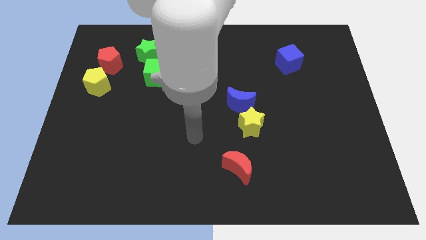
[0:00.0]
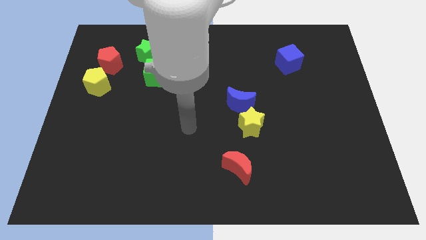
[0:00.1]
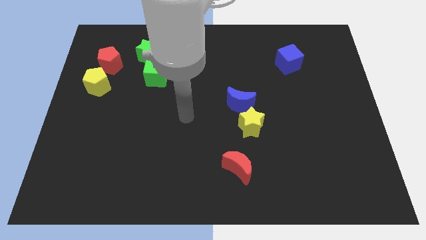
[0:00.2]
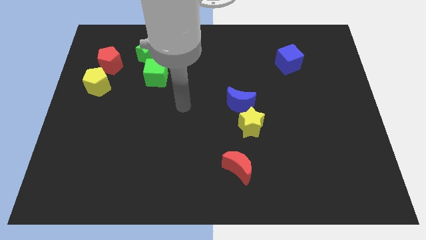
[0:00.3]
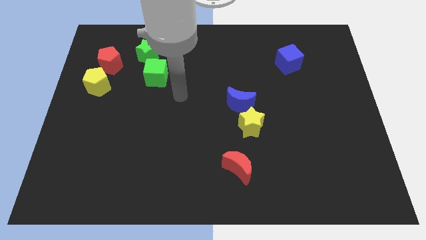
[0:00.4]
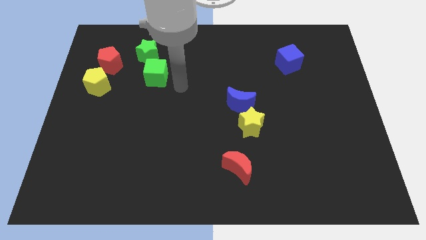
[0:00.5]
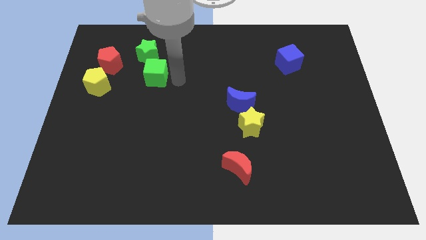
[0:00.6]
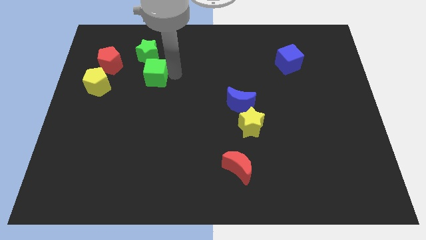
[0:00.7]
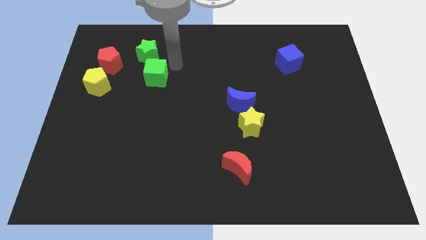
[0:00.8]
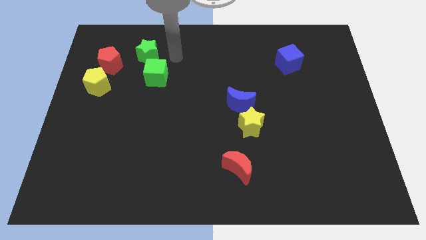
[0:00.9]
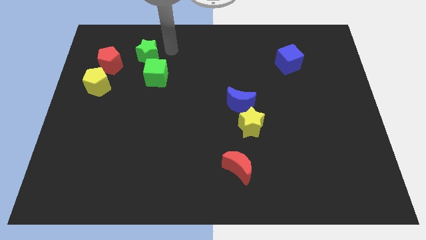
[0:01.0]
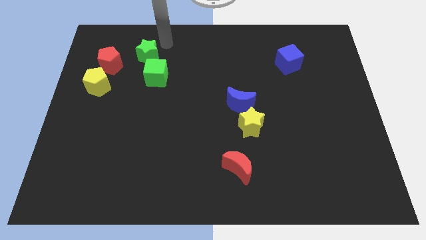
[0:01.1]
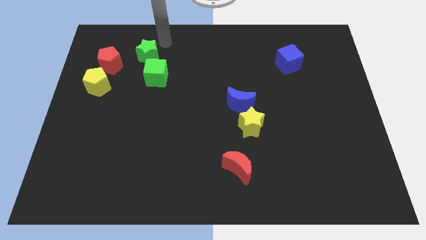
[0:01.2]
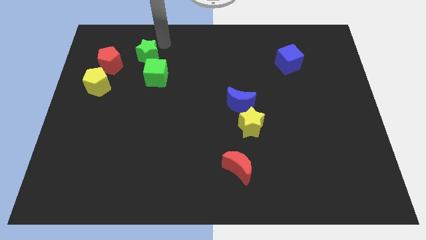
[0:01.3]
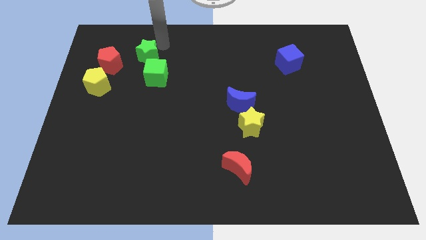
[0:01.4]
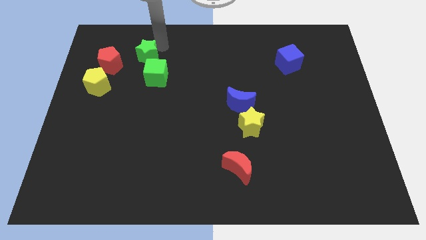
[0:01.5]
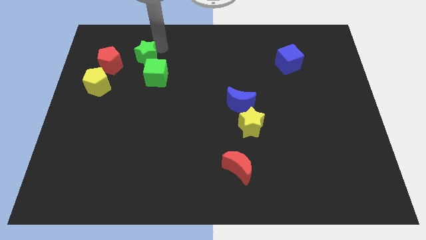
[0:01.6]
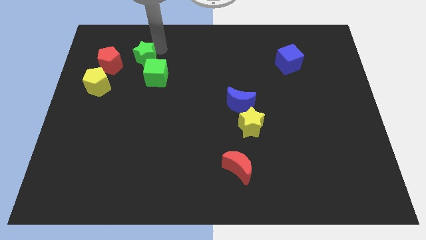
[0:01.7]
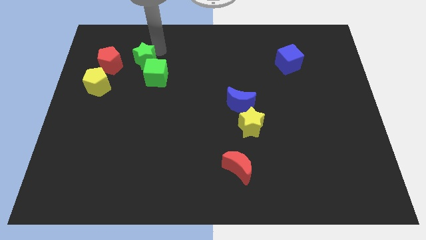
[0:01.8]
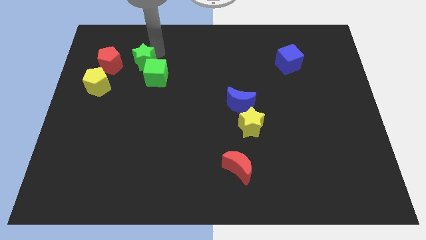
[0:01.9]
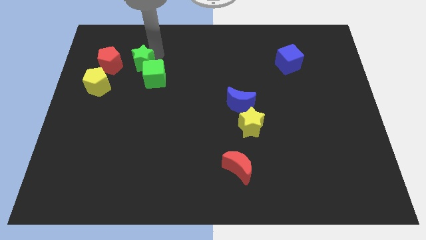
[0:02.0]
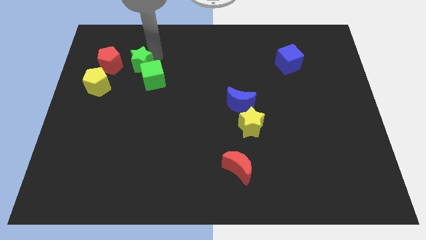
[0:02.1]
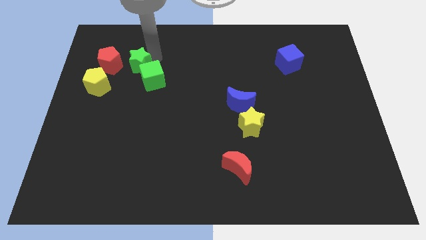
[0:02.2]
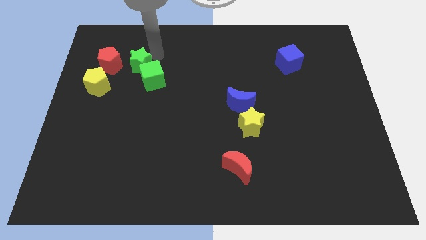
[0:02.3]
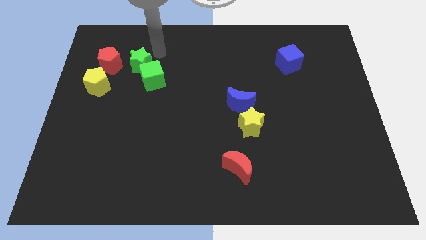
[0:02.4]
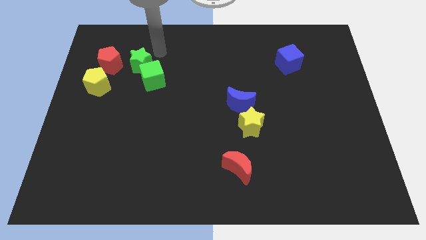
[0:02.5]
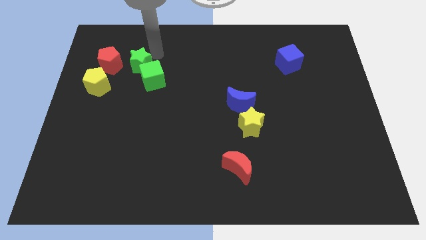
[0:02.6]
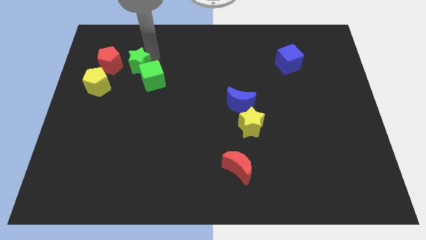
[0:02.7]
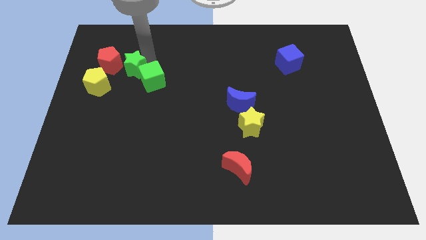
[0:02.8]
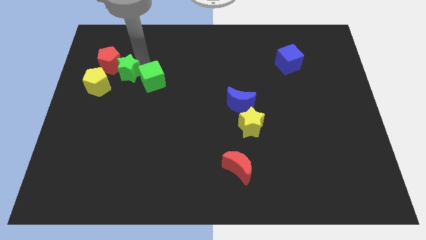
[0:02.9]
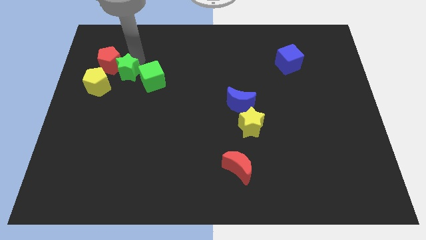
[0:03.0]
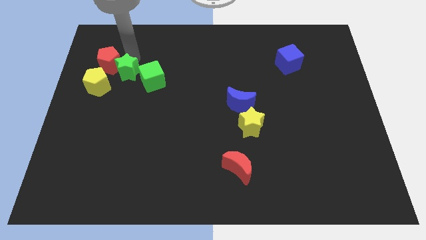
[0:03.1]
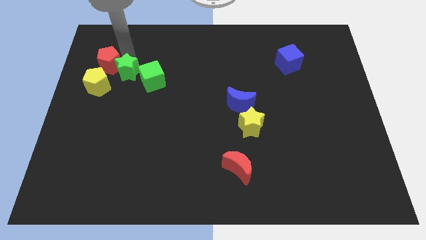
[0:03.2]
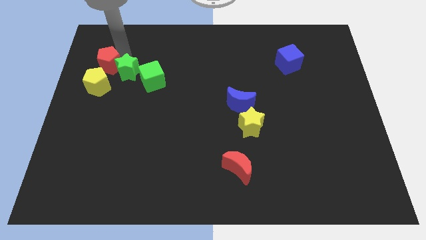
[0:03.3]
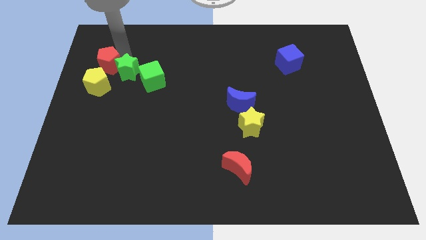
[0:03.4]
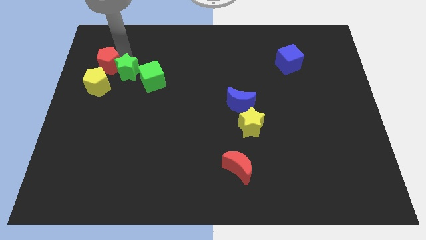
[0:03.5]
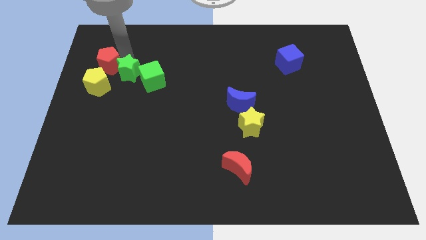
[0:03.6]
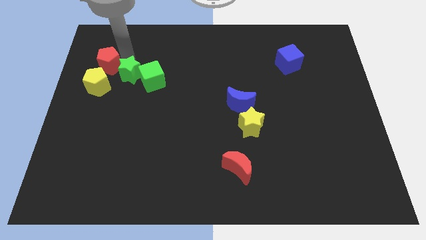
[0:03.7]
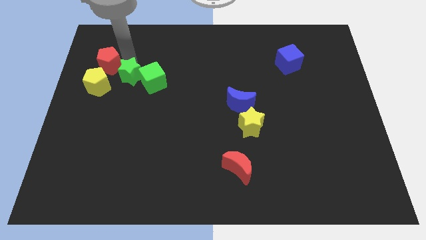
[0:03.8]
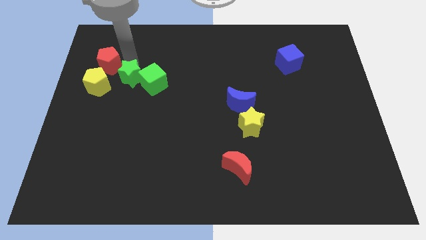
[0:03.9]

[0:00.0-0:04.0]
move the green star down a little

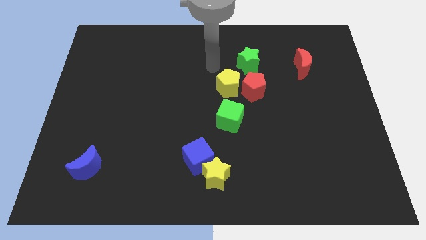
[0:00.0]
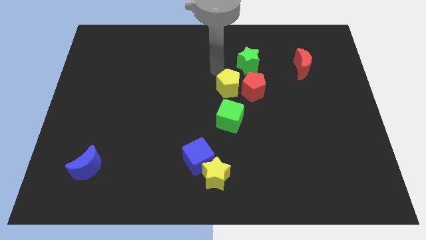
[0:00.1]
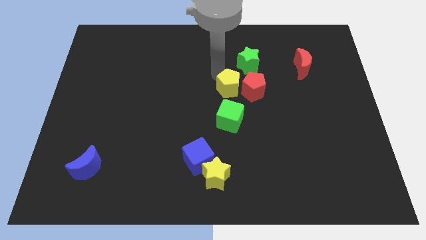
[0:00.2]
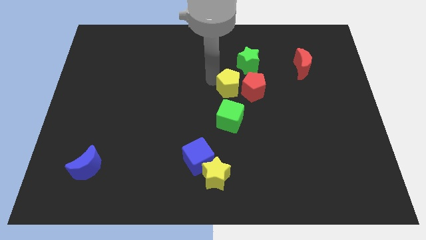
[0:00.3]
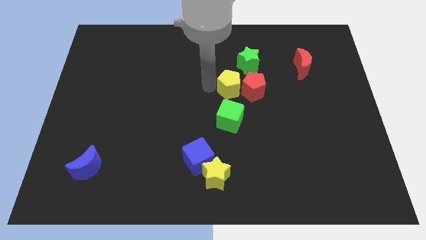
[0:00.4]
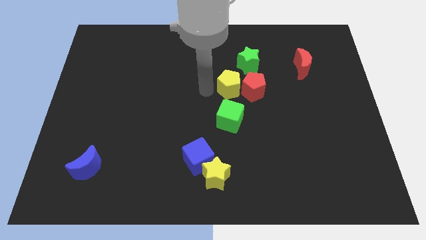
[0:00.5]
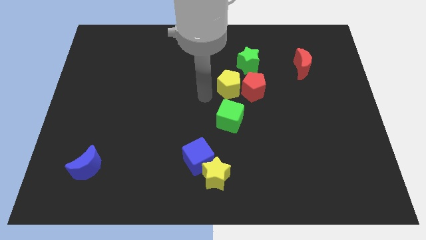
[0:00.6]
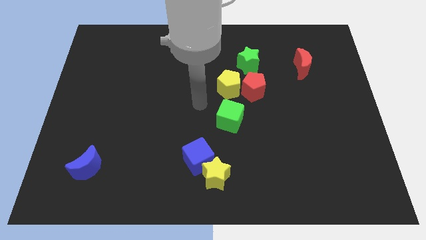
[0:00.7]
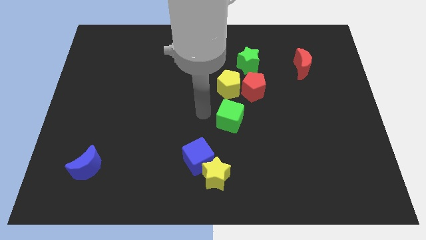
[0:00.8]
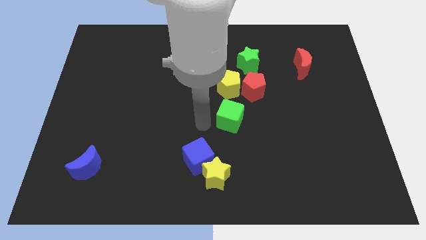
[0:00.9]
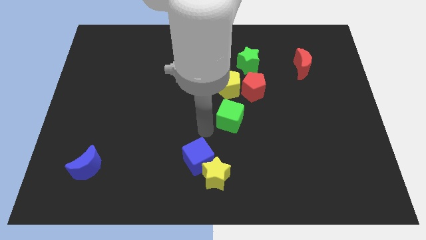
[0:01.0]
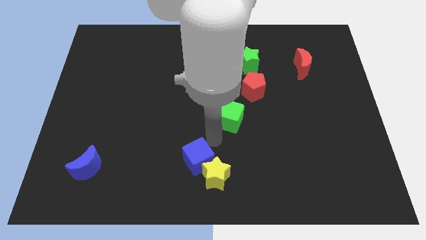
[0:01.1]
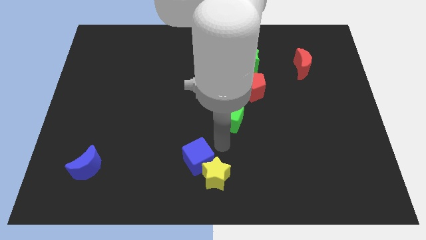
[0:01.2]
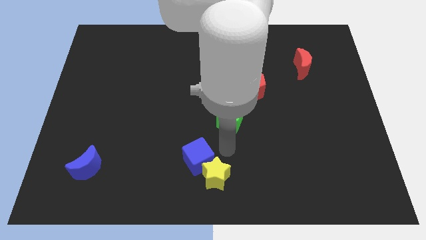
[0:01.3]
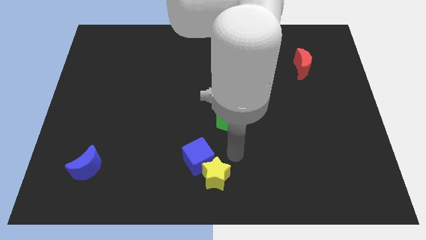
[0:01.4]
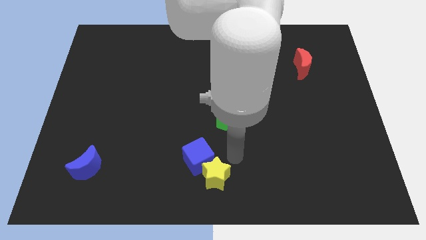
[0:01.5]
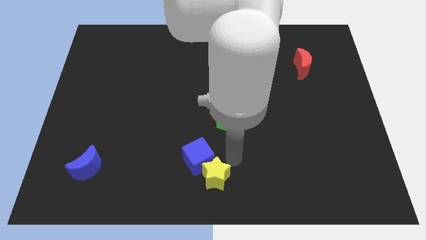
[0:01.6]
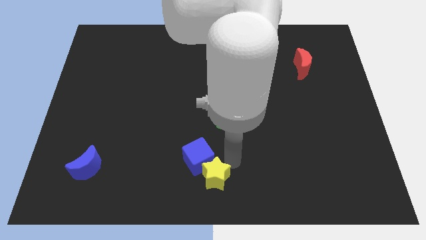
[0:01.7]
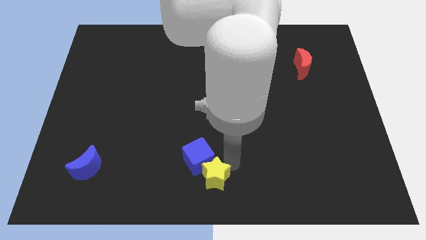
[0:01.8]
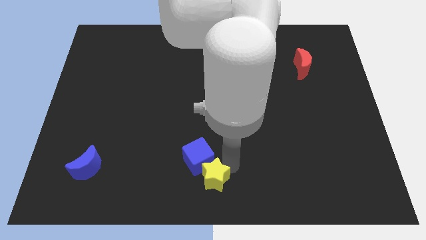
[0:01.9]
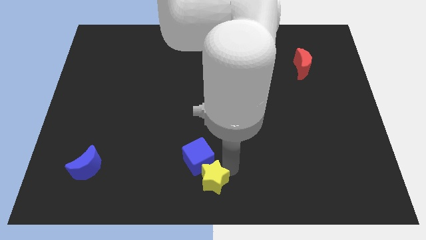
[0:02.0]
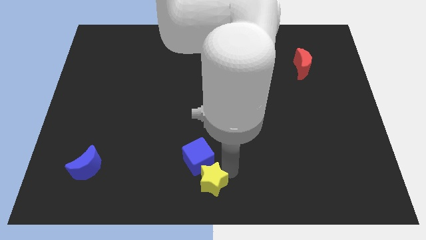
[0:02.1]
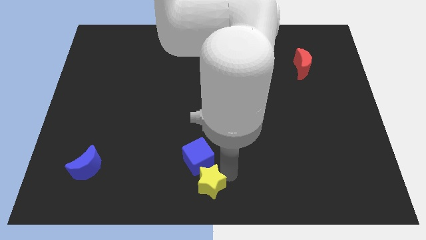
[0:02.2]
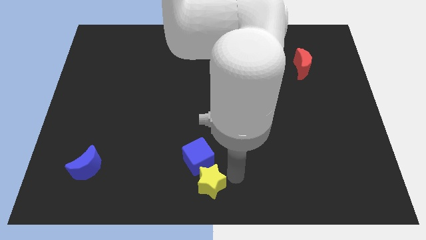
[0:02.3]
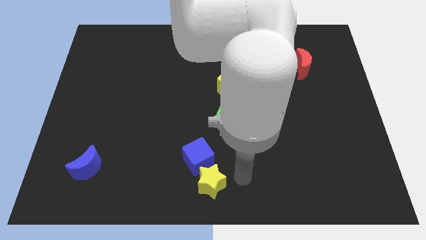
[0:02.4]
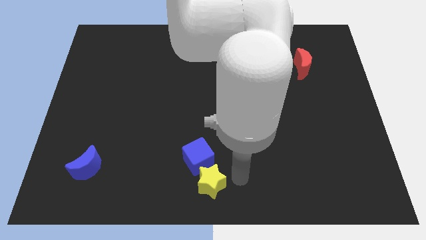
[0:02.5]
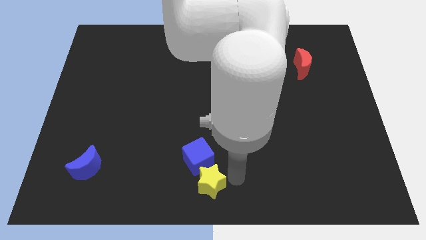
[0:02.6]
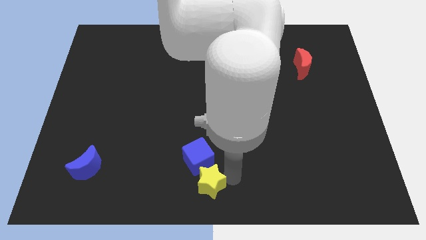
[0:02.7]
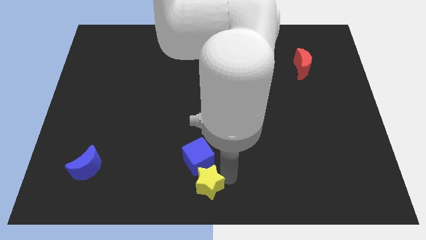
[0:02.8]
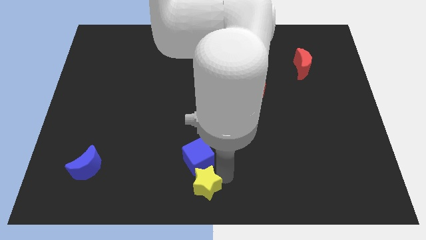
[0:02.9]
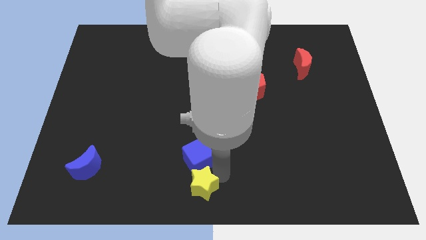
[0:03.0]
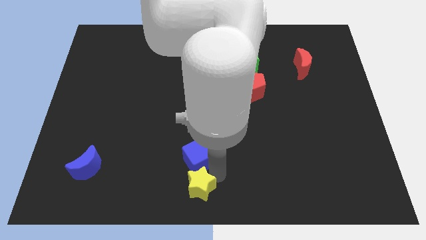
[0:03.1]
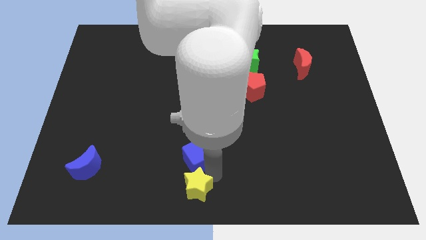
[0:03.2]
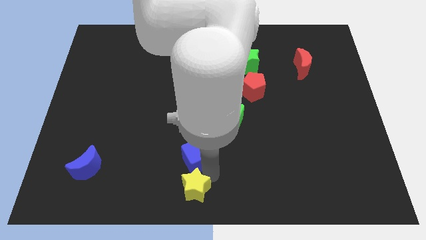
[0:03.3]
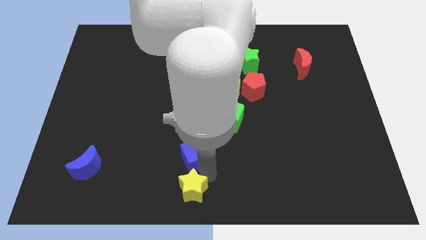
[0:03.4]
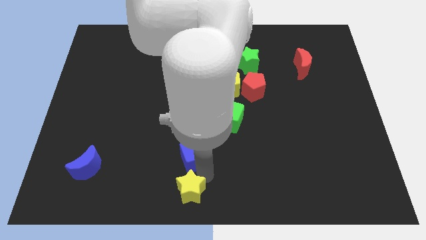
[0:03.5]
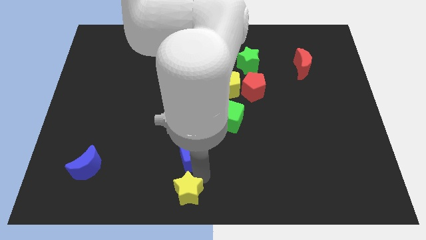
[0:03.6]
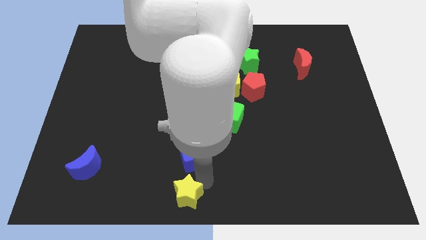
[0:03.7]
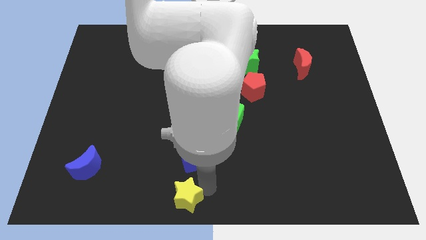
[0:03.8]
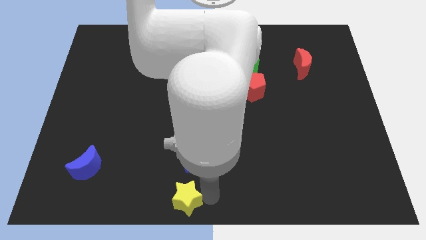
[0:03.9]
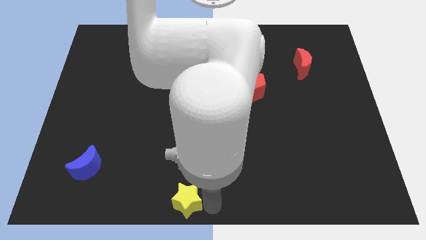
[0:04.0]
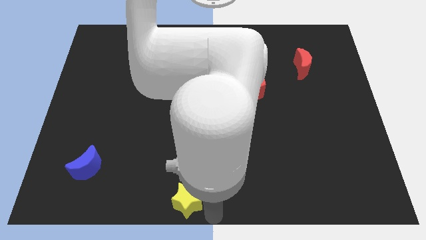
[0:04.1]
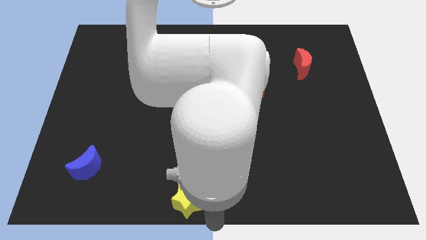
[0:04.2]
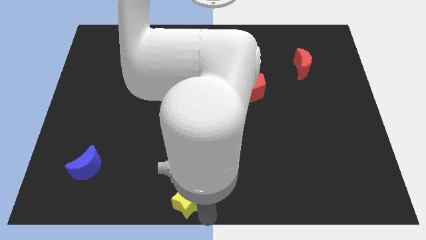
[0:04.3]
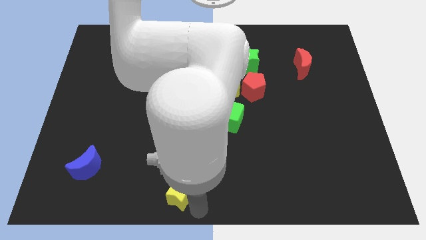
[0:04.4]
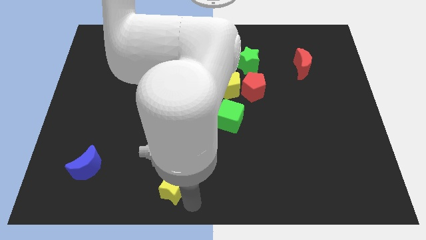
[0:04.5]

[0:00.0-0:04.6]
slightly slide the yellow star left
